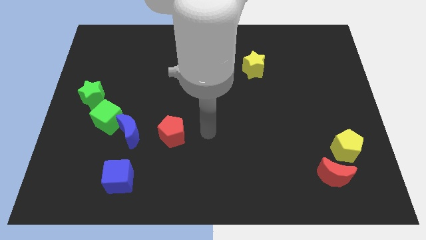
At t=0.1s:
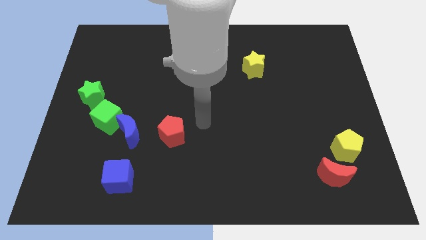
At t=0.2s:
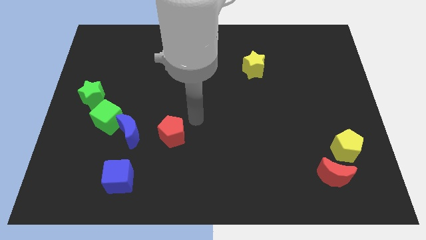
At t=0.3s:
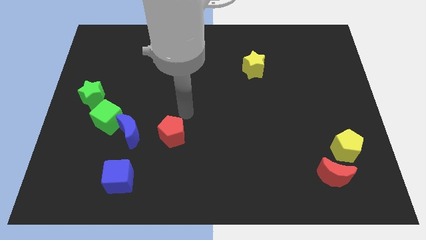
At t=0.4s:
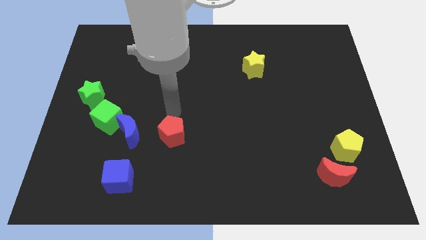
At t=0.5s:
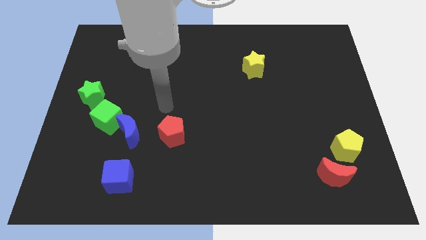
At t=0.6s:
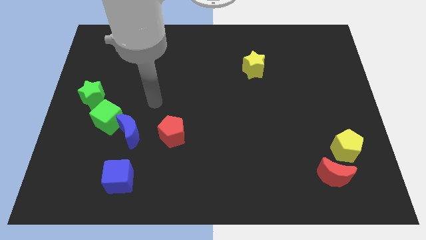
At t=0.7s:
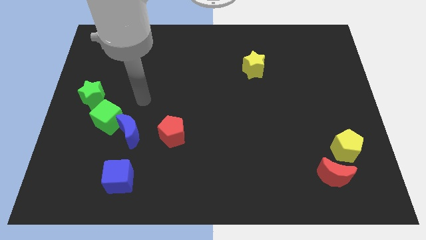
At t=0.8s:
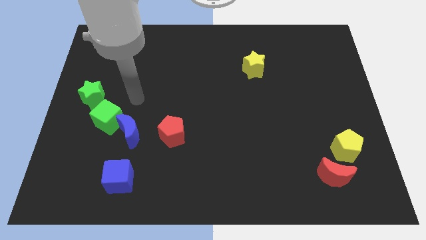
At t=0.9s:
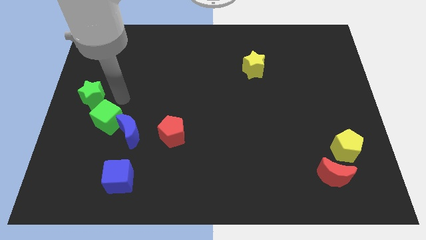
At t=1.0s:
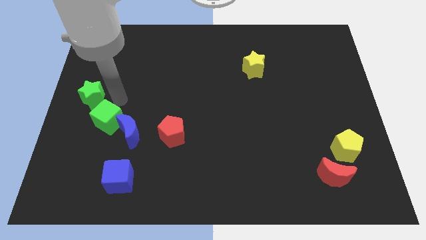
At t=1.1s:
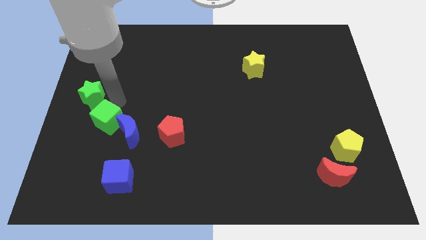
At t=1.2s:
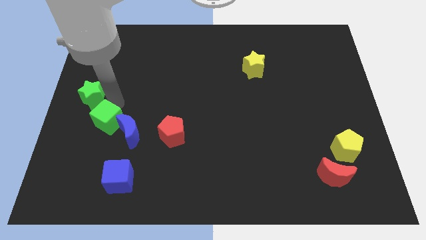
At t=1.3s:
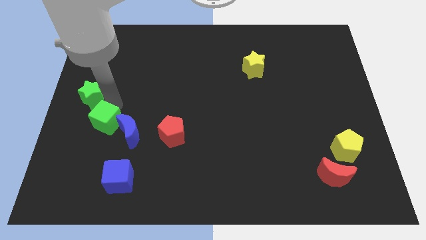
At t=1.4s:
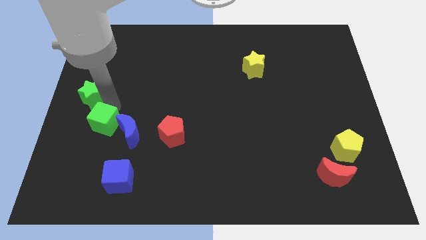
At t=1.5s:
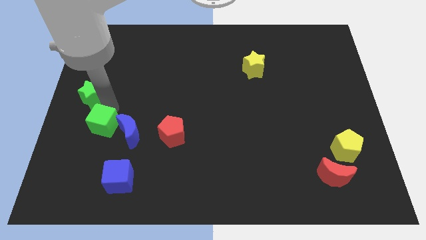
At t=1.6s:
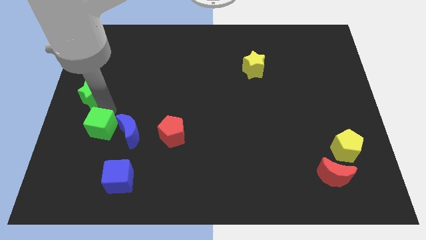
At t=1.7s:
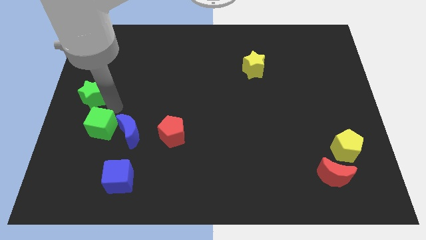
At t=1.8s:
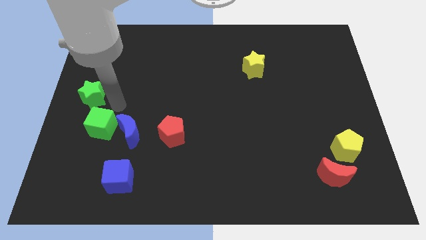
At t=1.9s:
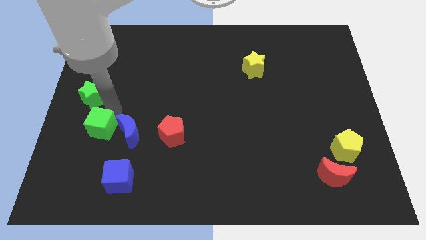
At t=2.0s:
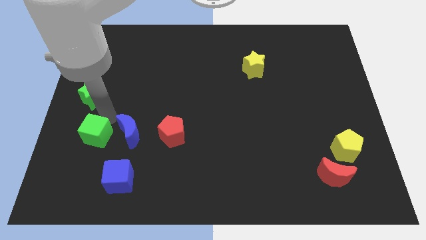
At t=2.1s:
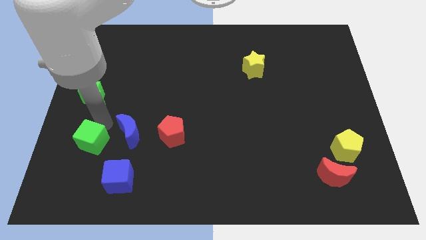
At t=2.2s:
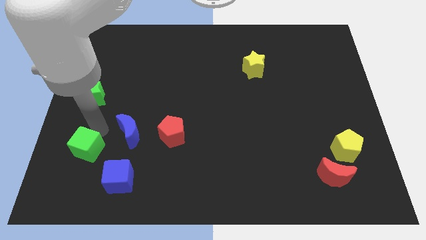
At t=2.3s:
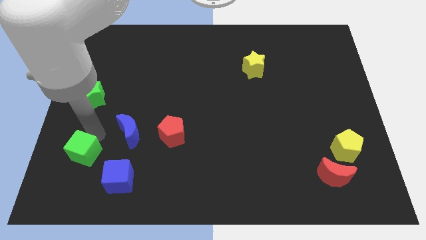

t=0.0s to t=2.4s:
separate the green cube from the blue moon and green star

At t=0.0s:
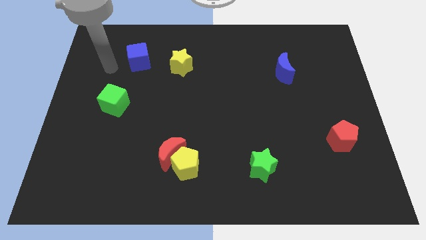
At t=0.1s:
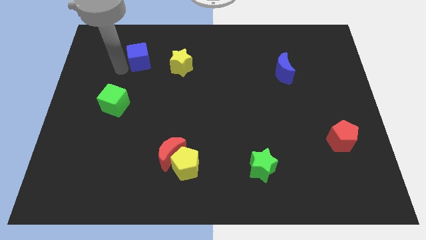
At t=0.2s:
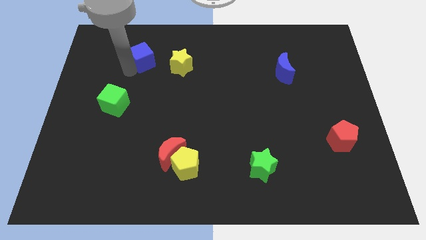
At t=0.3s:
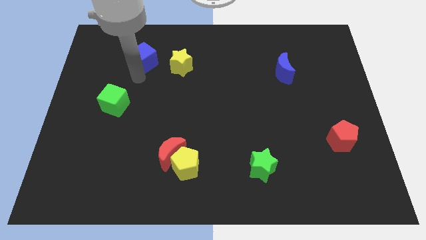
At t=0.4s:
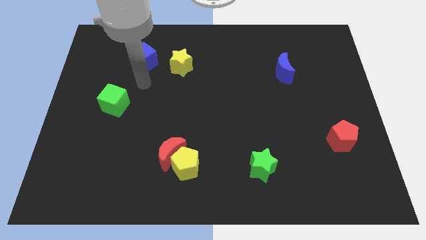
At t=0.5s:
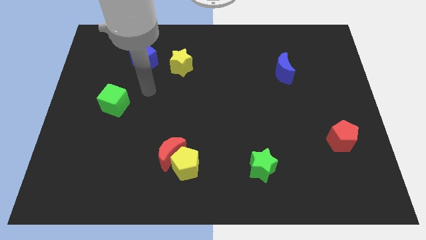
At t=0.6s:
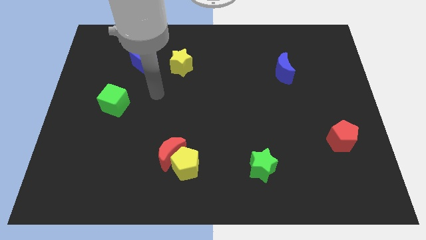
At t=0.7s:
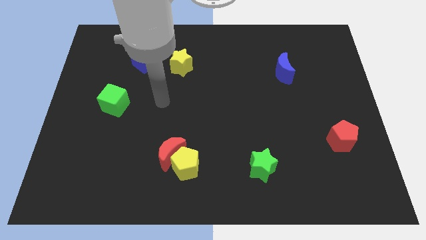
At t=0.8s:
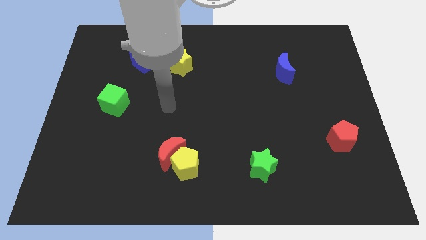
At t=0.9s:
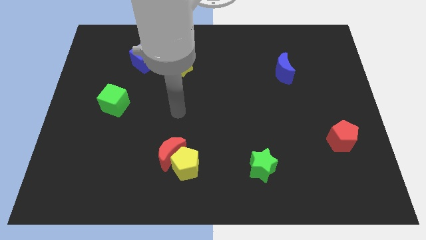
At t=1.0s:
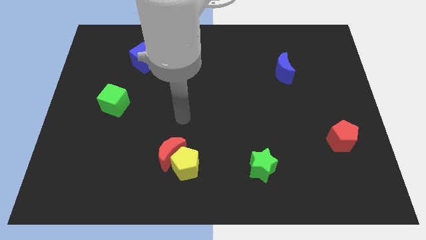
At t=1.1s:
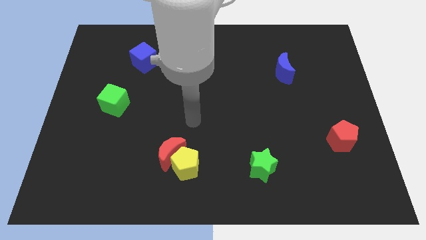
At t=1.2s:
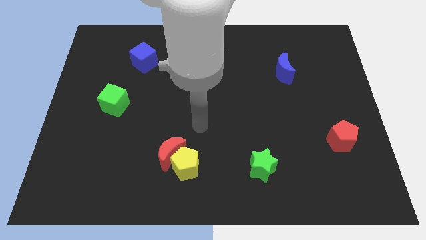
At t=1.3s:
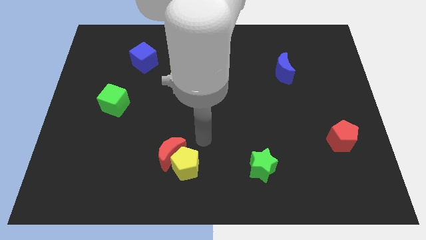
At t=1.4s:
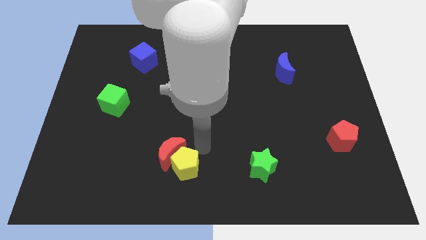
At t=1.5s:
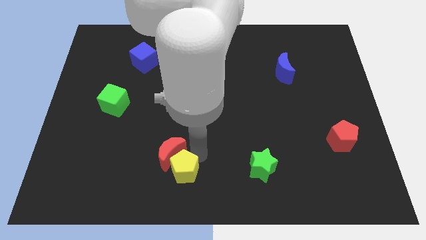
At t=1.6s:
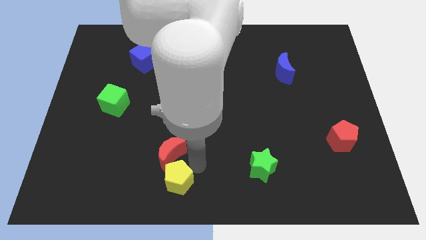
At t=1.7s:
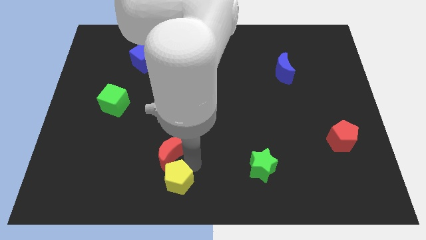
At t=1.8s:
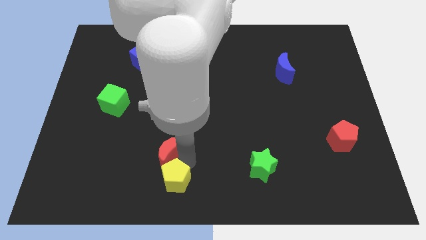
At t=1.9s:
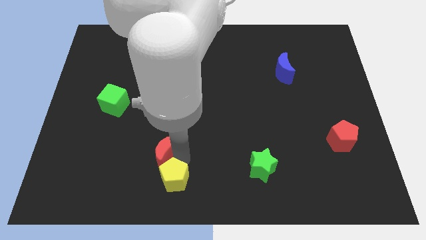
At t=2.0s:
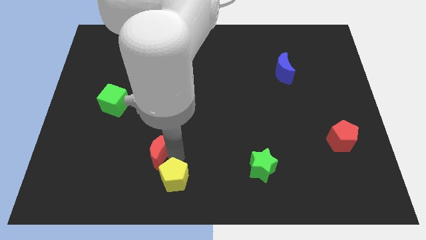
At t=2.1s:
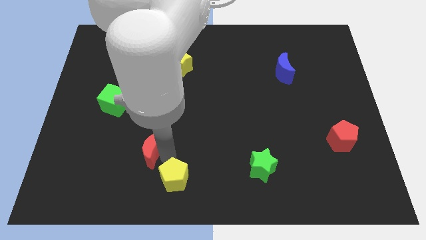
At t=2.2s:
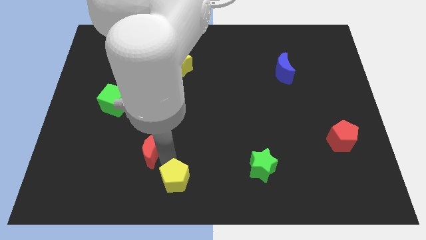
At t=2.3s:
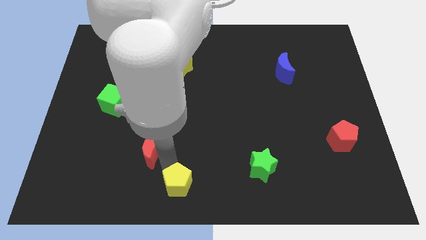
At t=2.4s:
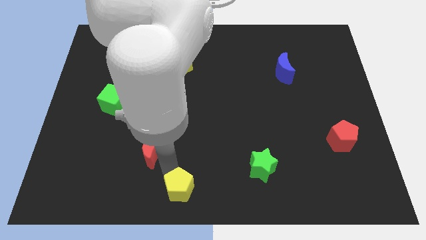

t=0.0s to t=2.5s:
pull the red moon apart from the yellow pentagon

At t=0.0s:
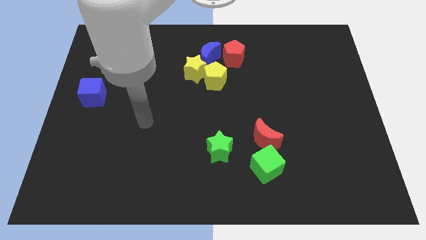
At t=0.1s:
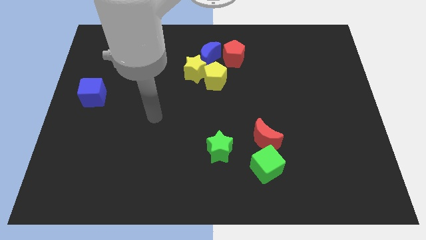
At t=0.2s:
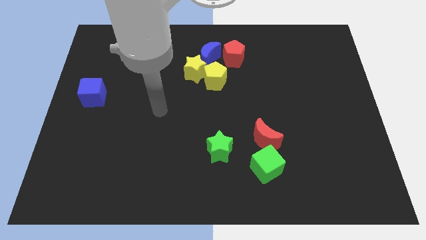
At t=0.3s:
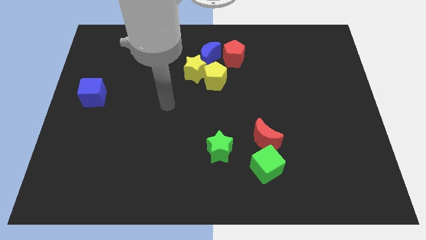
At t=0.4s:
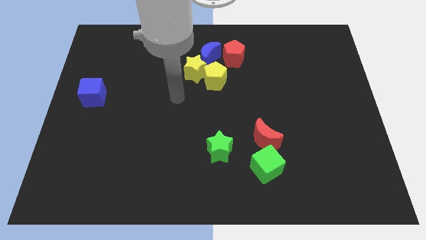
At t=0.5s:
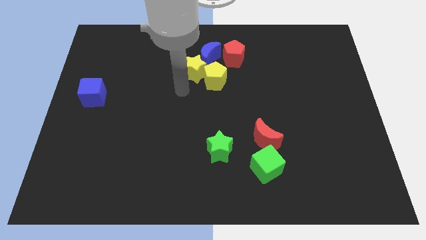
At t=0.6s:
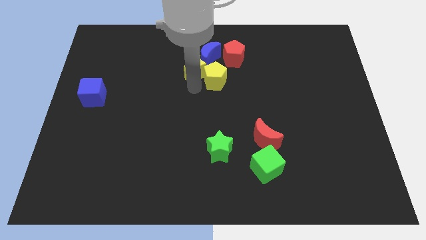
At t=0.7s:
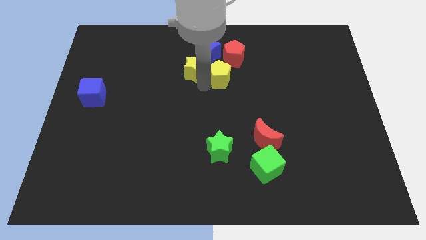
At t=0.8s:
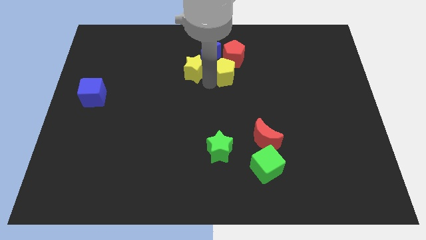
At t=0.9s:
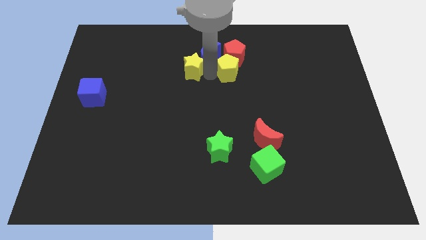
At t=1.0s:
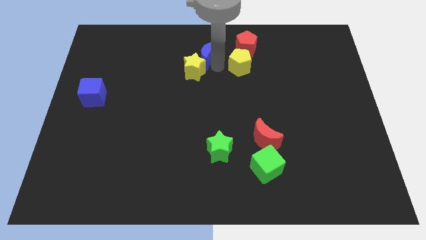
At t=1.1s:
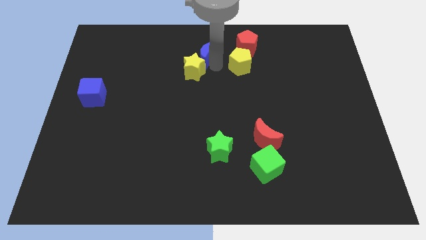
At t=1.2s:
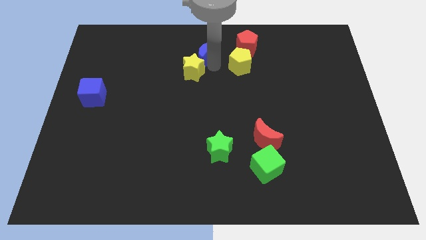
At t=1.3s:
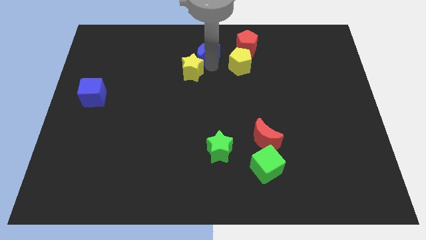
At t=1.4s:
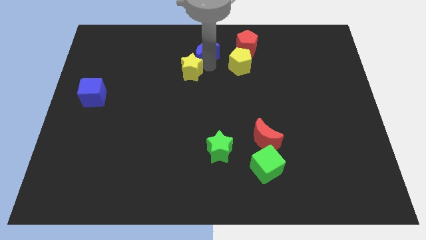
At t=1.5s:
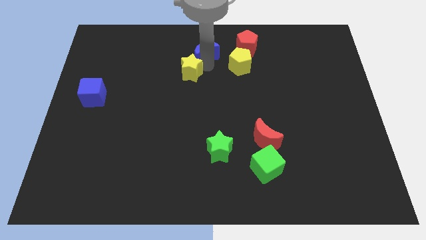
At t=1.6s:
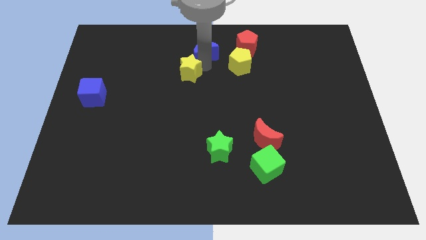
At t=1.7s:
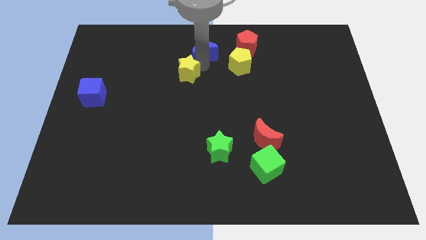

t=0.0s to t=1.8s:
move the yellow star away from the yellow pentagon and blue moon

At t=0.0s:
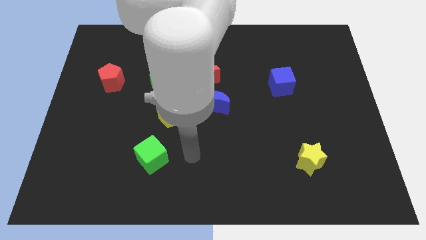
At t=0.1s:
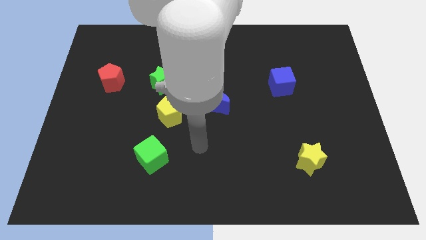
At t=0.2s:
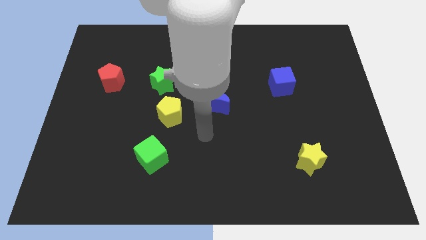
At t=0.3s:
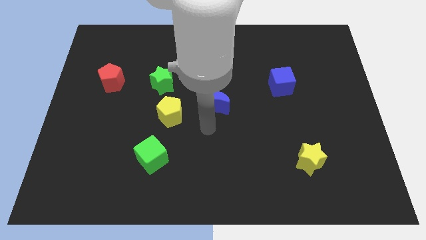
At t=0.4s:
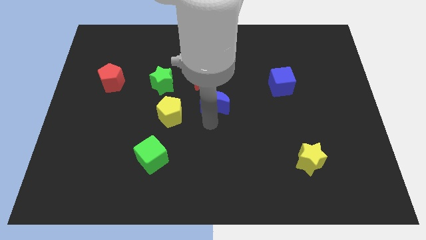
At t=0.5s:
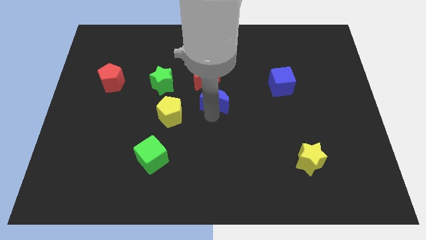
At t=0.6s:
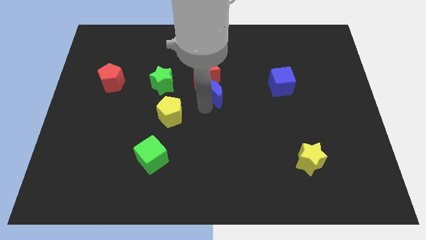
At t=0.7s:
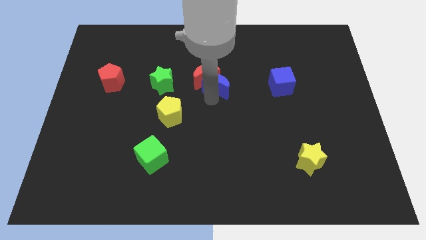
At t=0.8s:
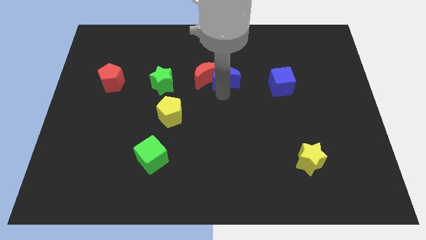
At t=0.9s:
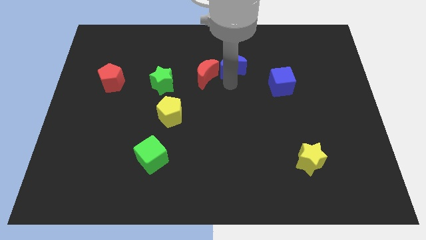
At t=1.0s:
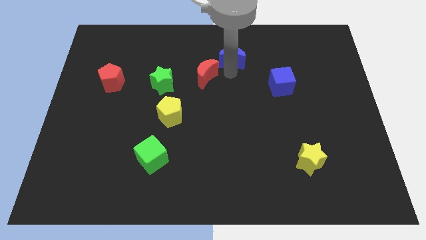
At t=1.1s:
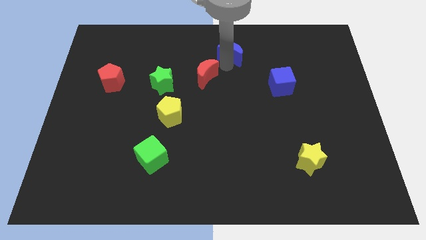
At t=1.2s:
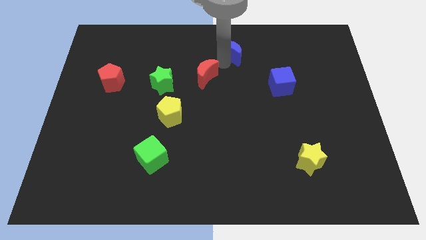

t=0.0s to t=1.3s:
separate the red moon from the blue moon

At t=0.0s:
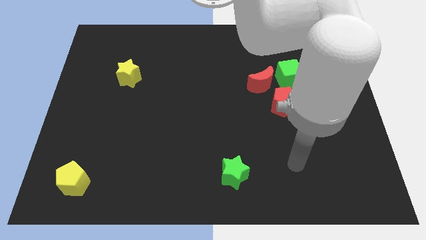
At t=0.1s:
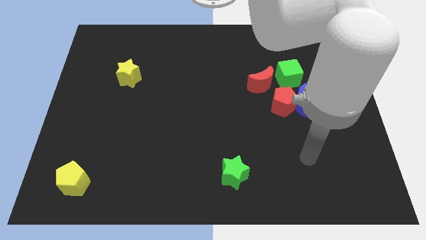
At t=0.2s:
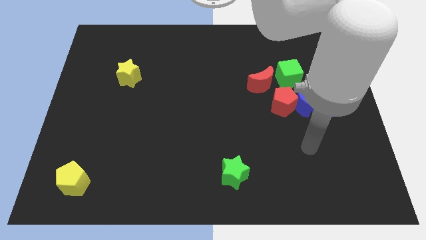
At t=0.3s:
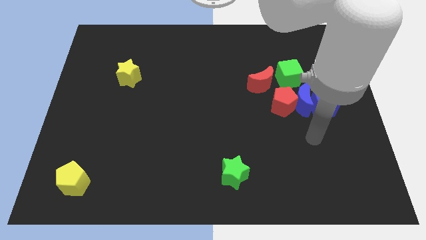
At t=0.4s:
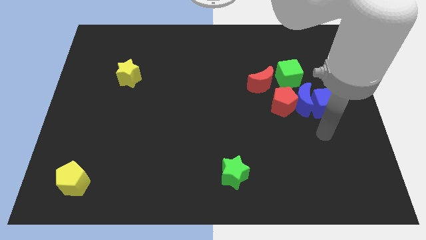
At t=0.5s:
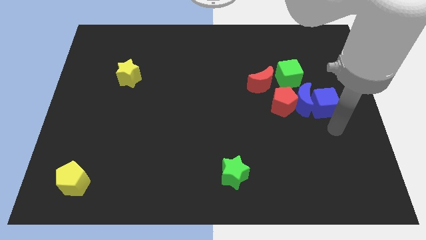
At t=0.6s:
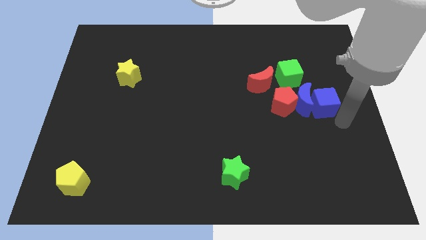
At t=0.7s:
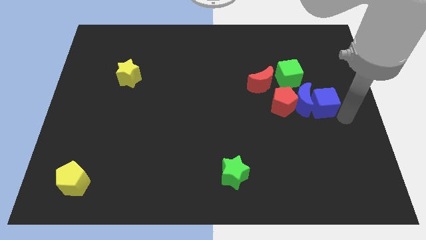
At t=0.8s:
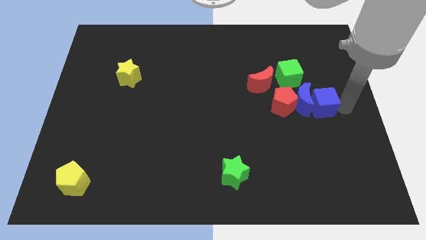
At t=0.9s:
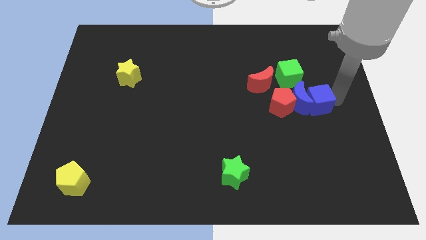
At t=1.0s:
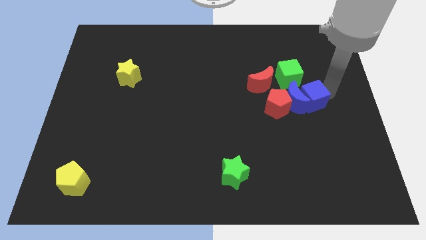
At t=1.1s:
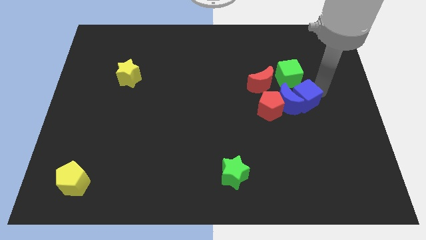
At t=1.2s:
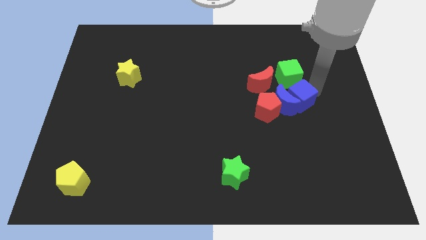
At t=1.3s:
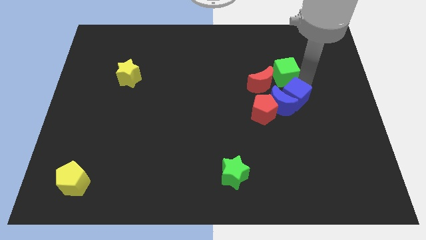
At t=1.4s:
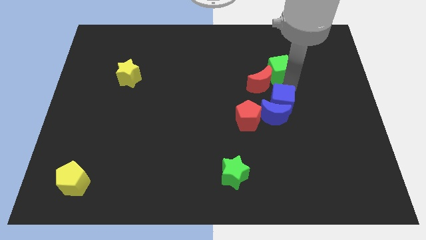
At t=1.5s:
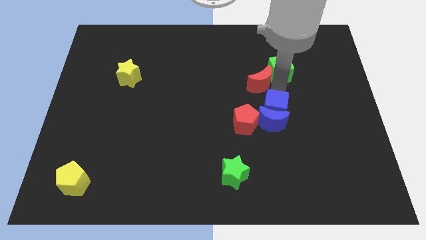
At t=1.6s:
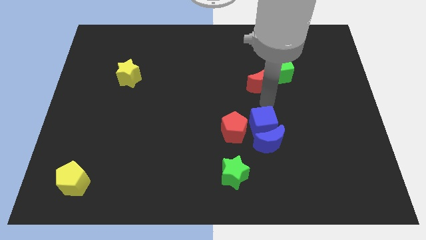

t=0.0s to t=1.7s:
separate the blue moon from the red pentagon, blue cube, and green cube
